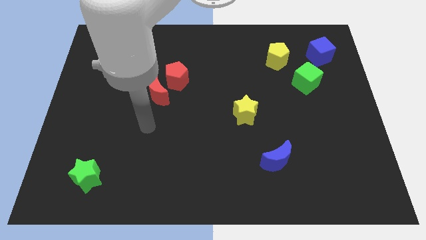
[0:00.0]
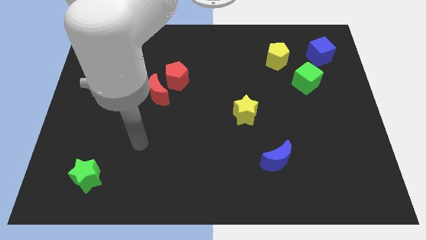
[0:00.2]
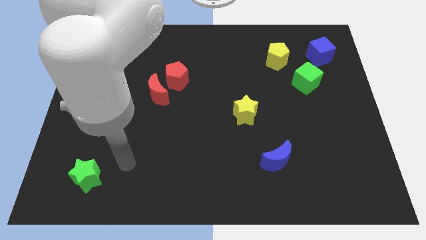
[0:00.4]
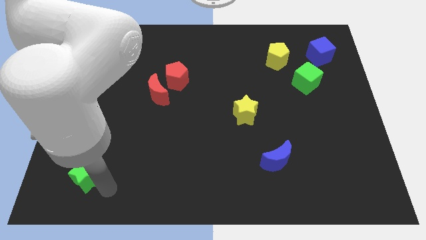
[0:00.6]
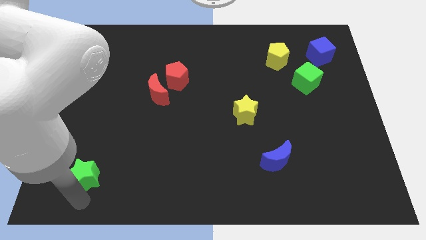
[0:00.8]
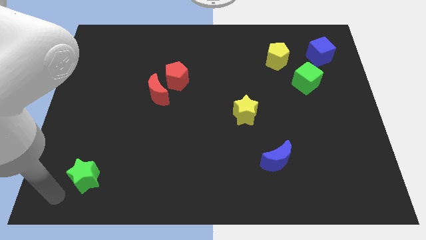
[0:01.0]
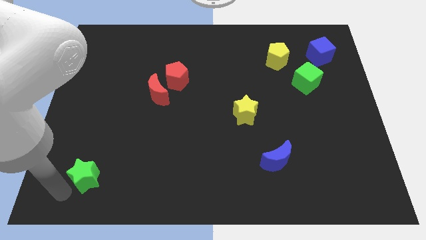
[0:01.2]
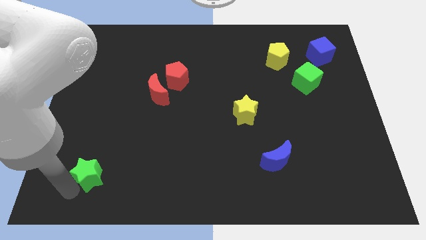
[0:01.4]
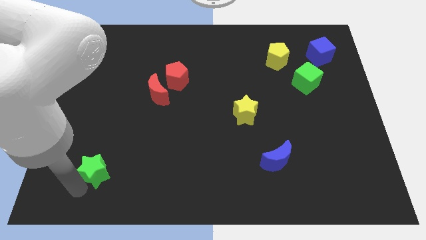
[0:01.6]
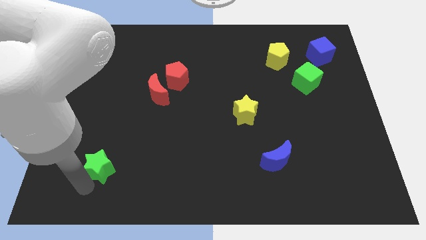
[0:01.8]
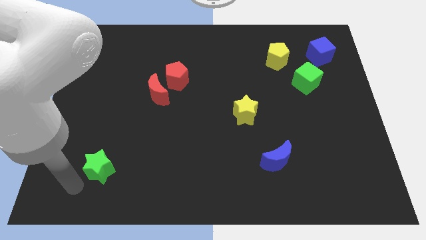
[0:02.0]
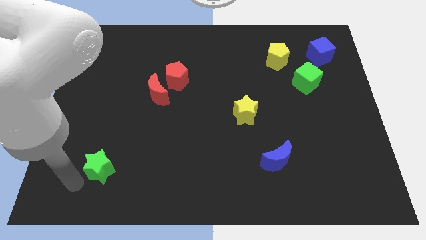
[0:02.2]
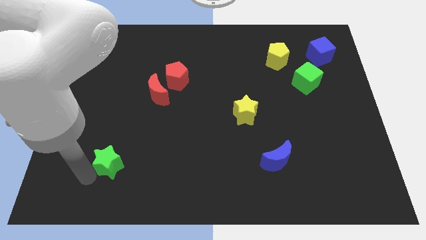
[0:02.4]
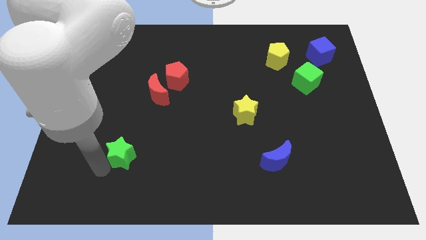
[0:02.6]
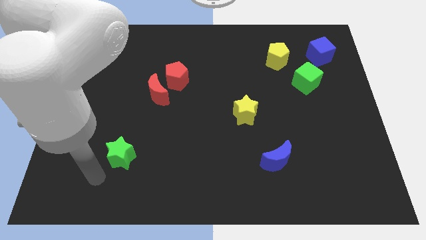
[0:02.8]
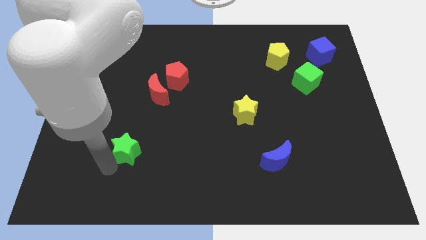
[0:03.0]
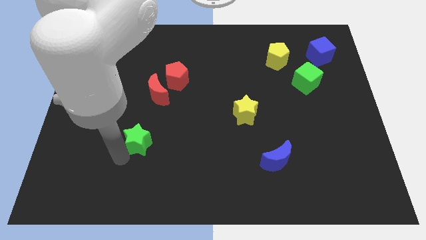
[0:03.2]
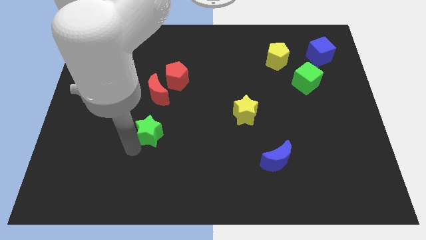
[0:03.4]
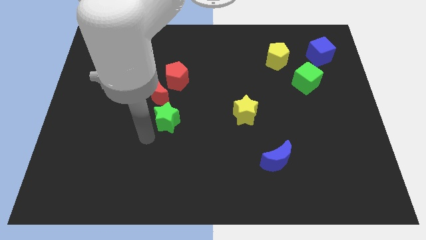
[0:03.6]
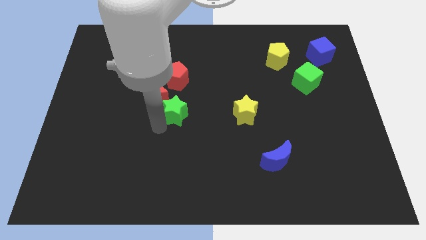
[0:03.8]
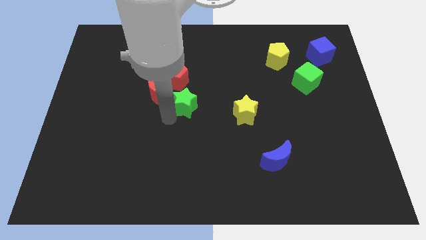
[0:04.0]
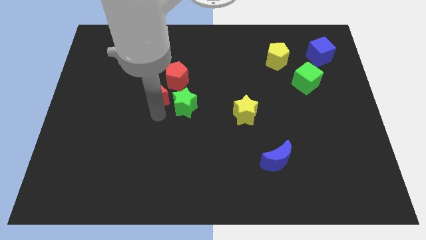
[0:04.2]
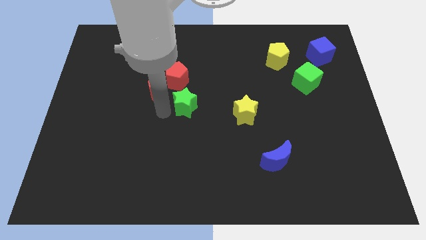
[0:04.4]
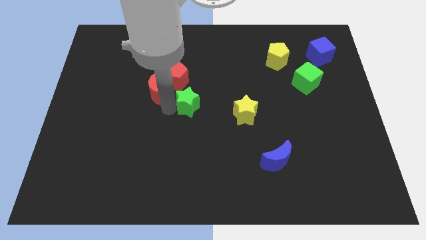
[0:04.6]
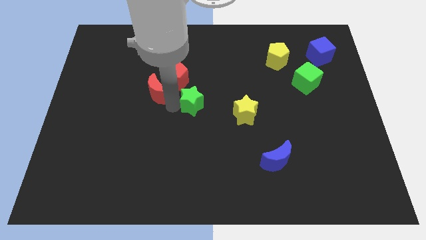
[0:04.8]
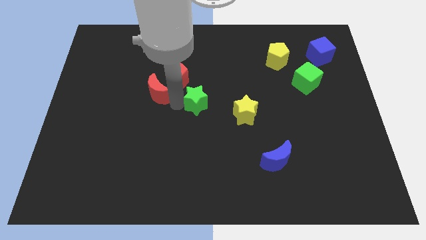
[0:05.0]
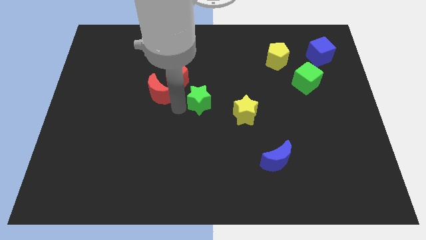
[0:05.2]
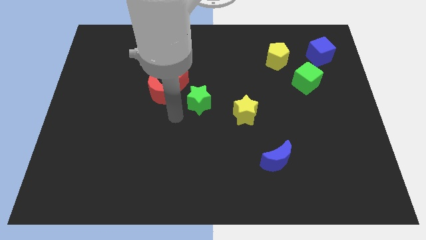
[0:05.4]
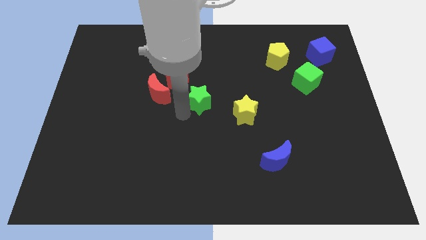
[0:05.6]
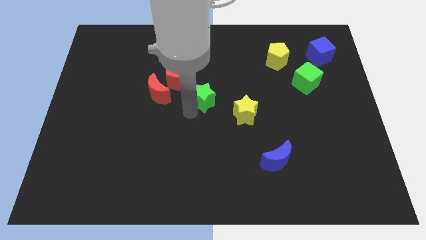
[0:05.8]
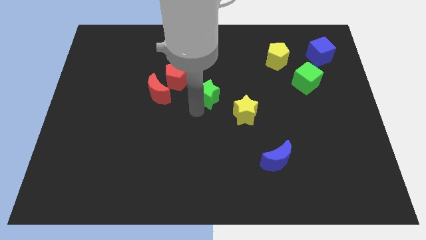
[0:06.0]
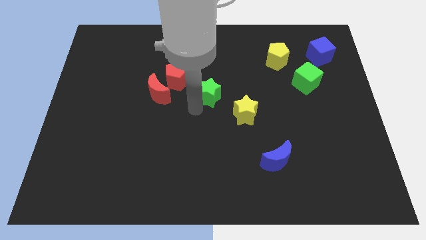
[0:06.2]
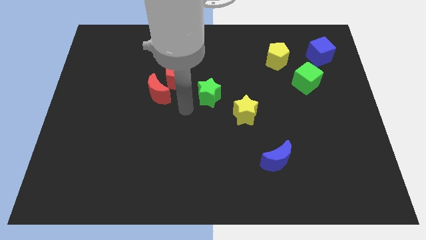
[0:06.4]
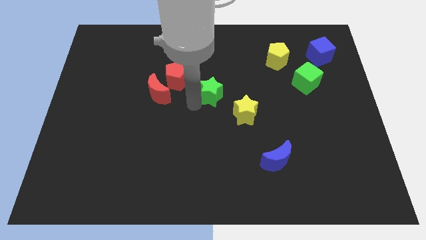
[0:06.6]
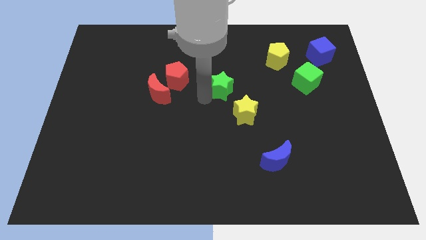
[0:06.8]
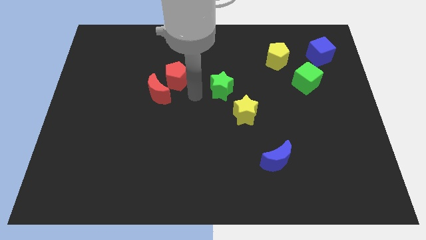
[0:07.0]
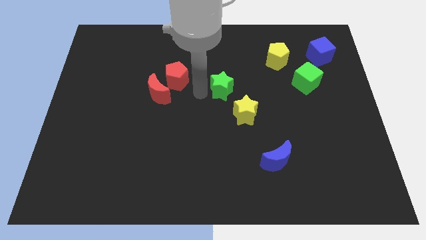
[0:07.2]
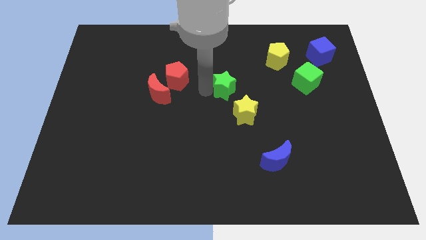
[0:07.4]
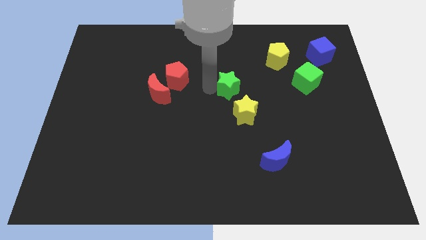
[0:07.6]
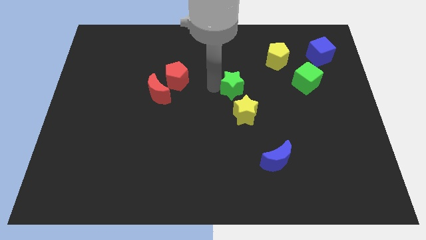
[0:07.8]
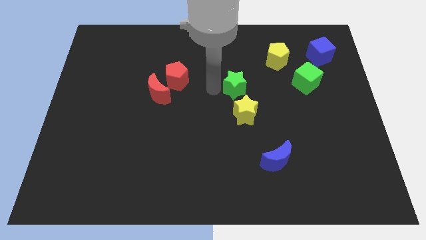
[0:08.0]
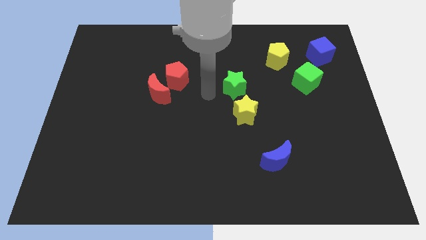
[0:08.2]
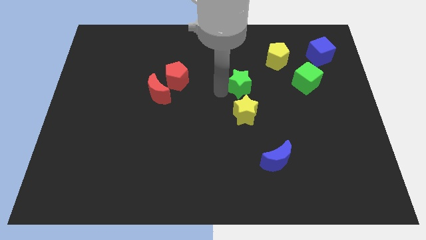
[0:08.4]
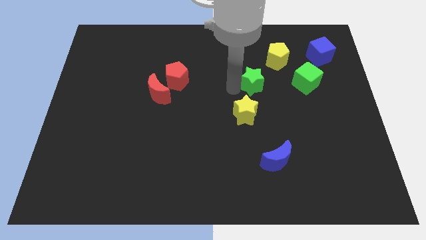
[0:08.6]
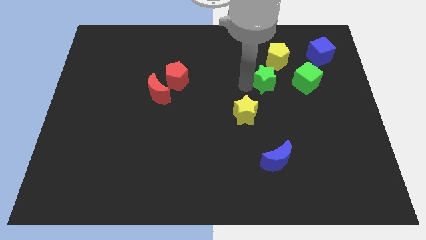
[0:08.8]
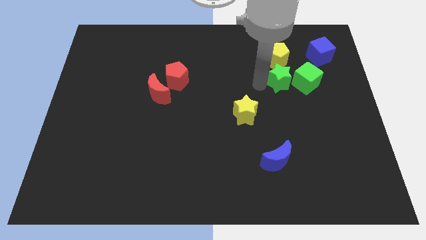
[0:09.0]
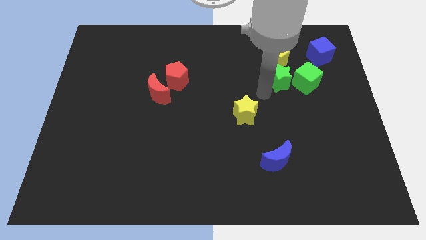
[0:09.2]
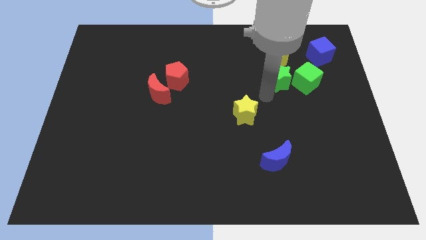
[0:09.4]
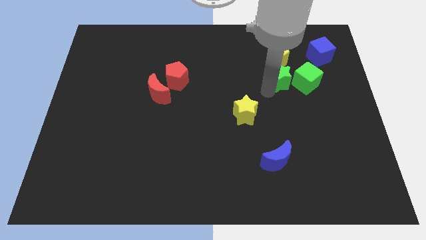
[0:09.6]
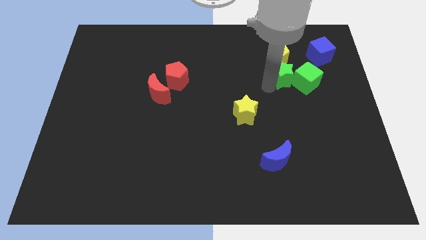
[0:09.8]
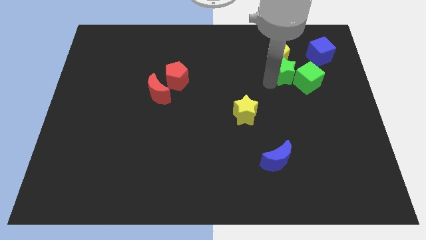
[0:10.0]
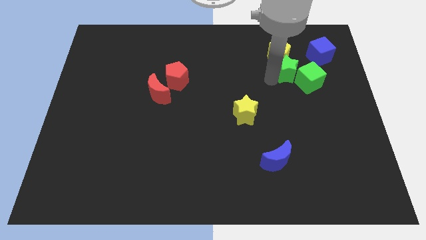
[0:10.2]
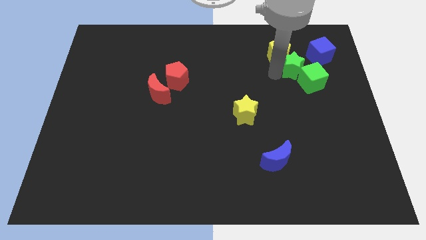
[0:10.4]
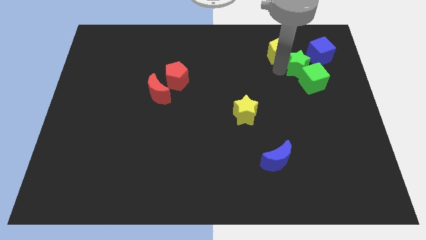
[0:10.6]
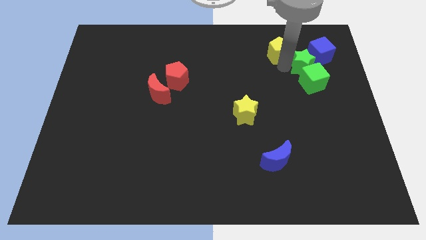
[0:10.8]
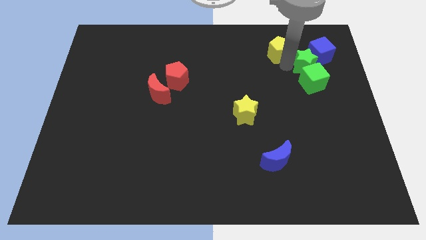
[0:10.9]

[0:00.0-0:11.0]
push the green star to the blue cube

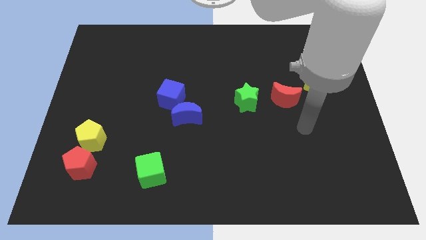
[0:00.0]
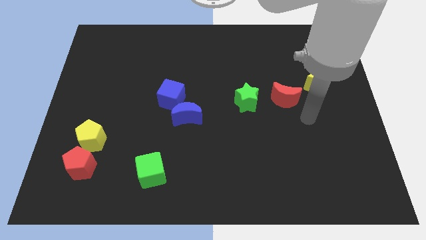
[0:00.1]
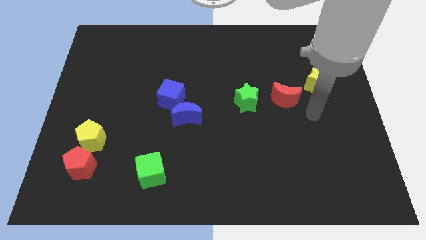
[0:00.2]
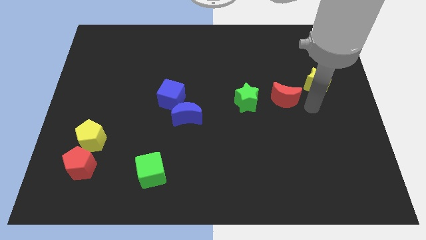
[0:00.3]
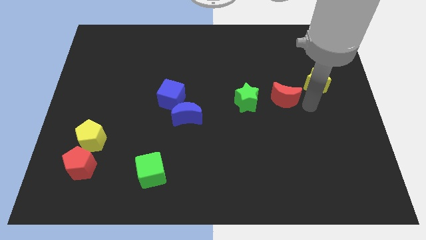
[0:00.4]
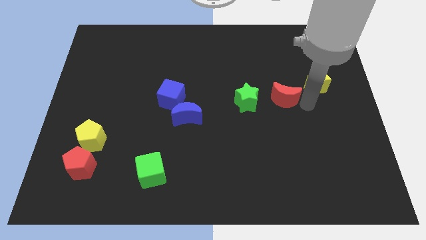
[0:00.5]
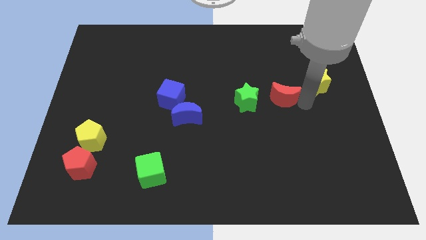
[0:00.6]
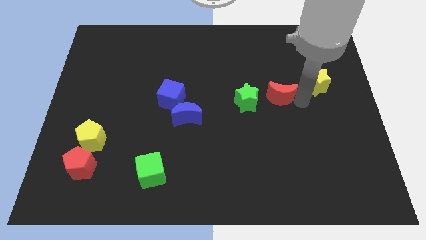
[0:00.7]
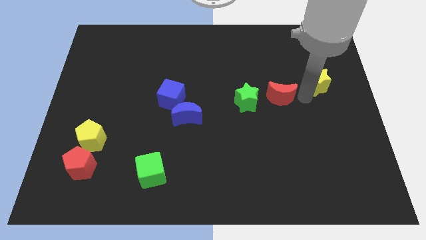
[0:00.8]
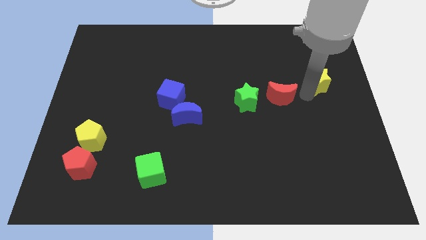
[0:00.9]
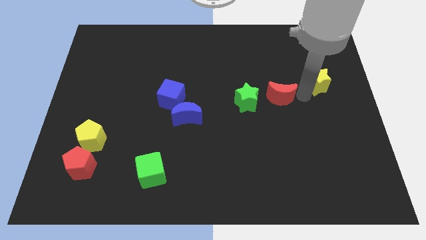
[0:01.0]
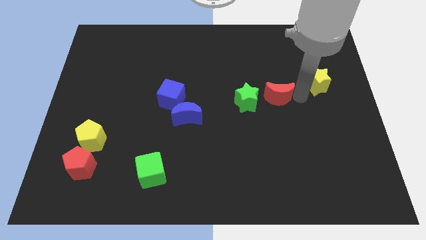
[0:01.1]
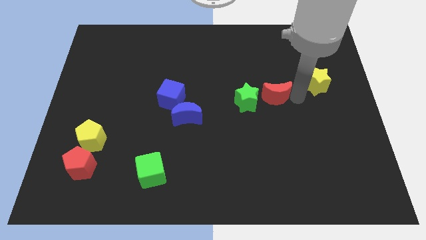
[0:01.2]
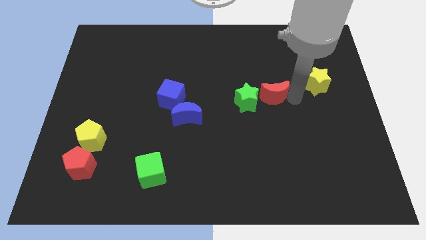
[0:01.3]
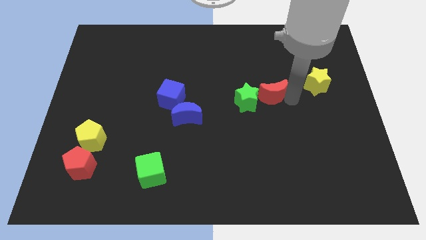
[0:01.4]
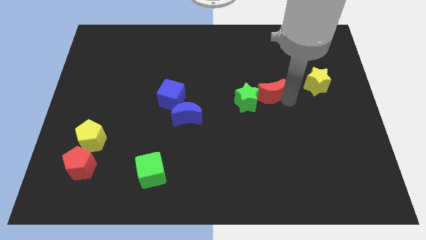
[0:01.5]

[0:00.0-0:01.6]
push the red moon close to the green star

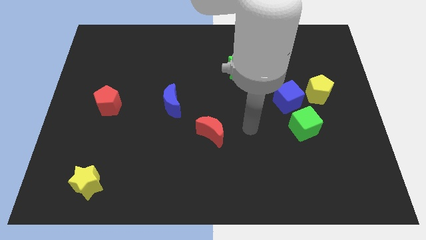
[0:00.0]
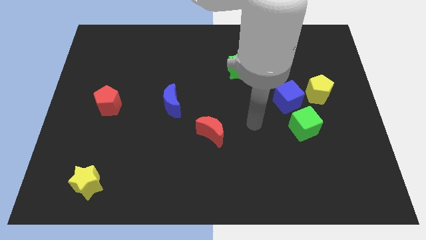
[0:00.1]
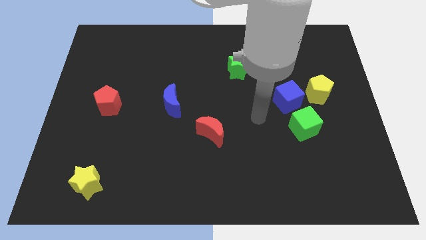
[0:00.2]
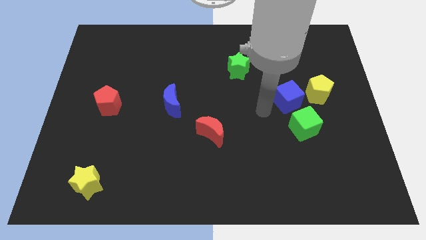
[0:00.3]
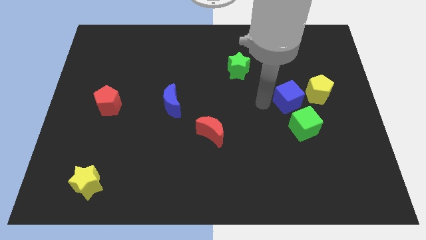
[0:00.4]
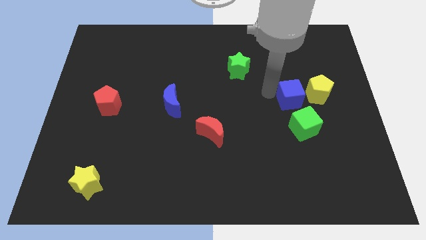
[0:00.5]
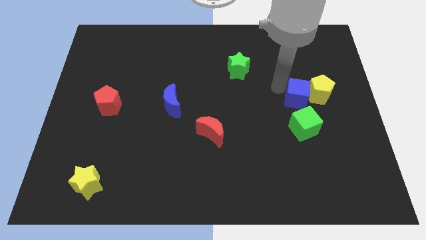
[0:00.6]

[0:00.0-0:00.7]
push the yellow pentagon next to the blue cube
